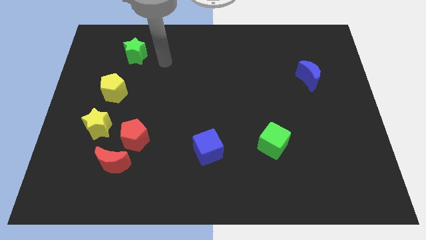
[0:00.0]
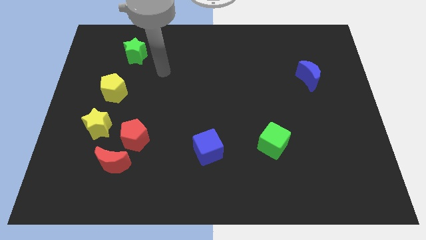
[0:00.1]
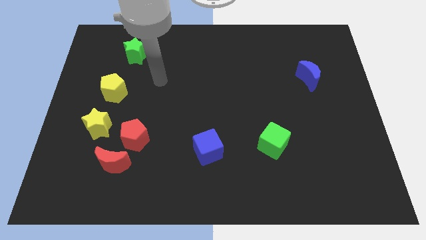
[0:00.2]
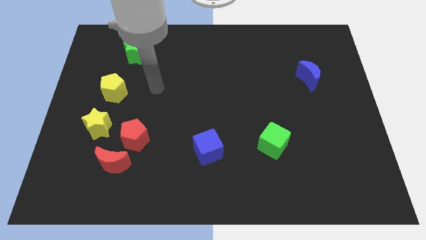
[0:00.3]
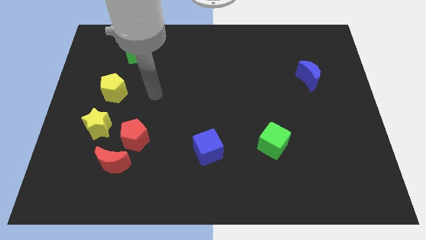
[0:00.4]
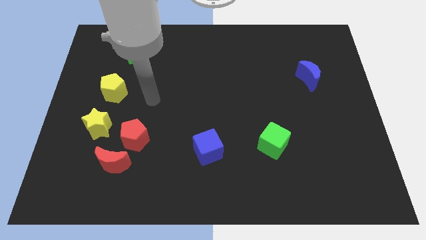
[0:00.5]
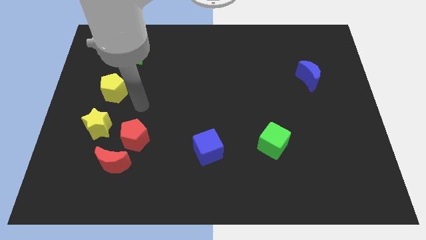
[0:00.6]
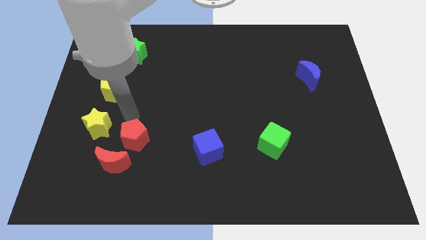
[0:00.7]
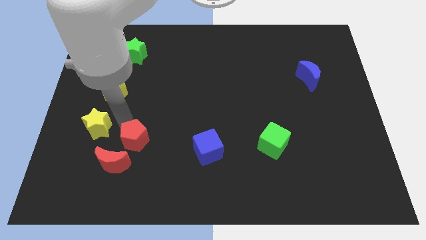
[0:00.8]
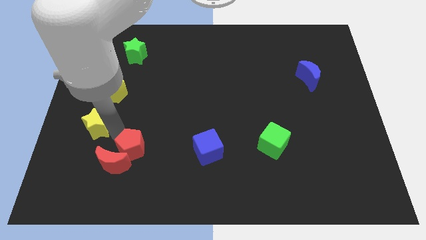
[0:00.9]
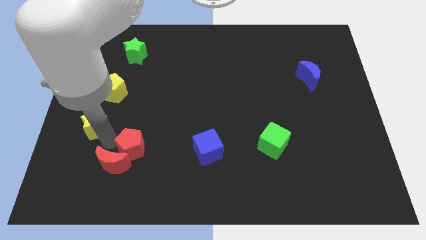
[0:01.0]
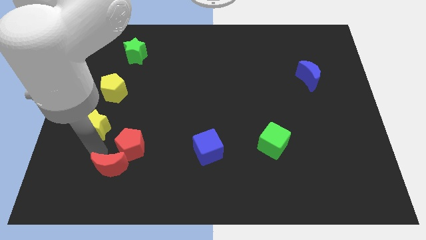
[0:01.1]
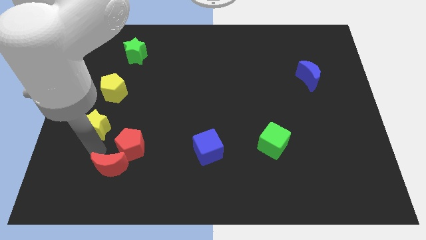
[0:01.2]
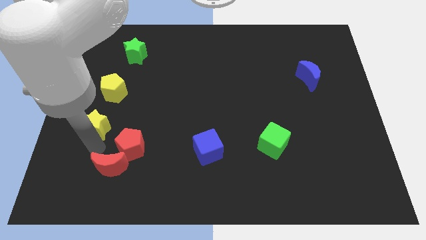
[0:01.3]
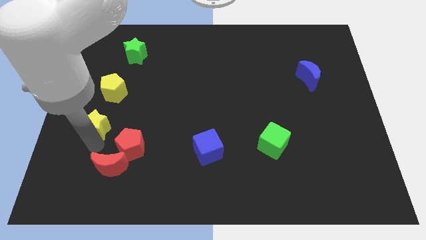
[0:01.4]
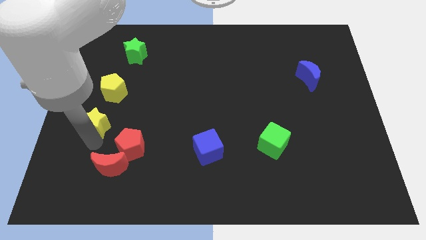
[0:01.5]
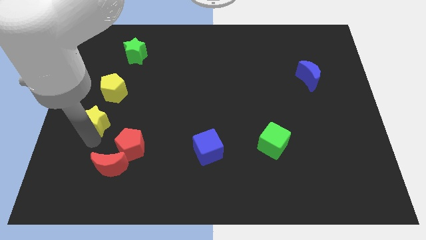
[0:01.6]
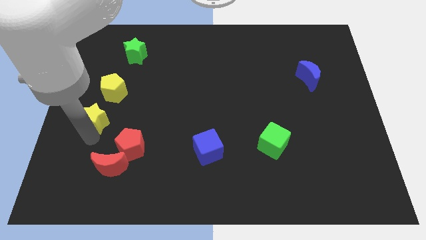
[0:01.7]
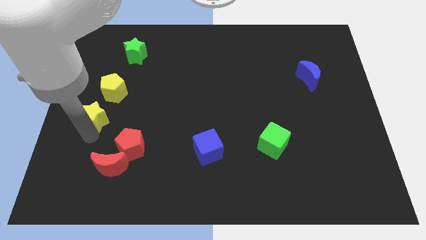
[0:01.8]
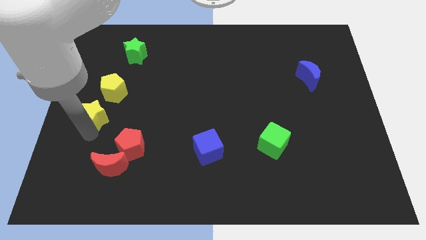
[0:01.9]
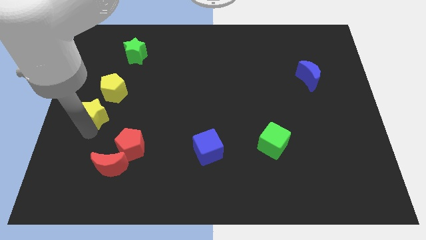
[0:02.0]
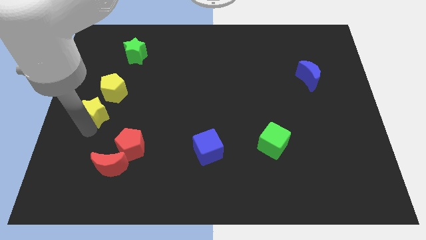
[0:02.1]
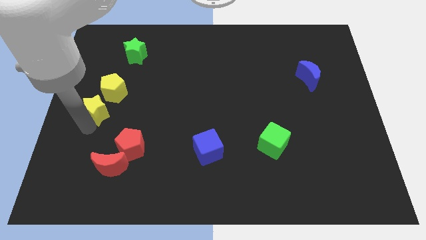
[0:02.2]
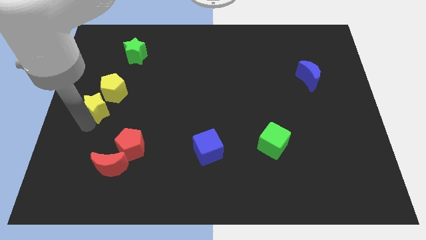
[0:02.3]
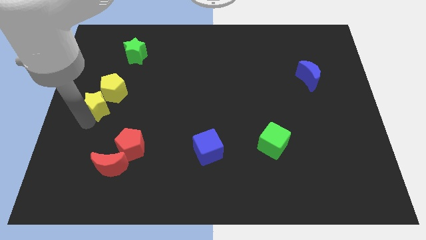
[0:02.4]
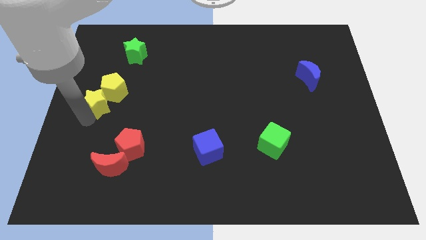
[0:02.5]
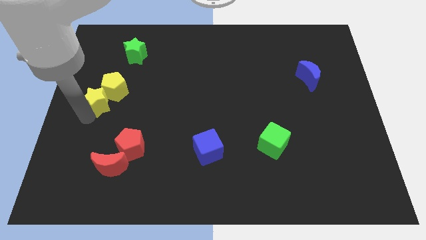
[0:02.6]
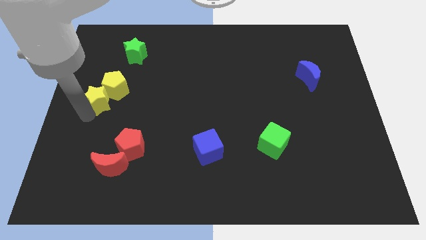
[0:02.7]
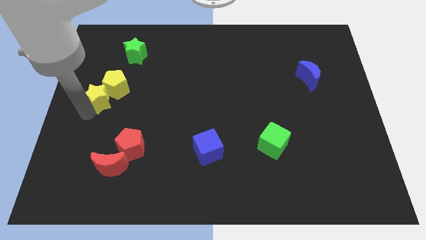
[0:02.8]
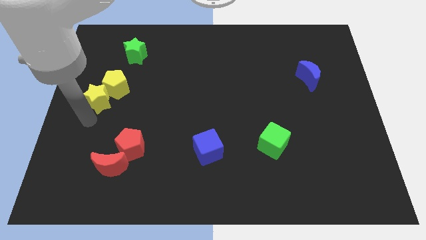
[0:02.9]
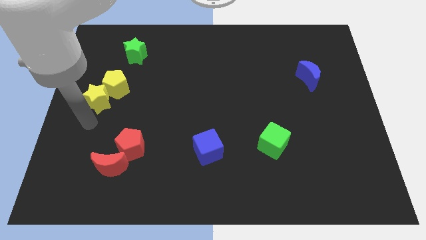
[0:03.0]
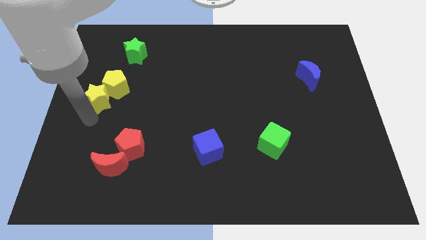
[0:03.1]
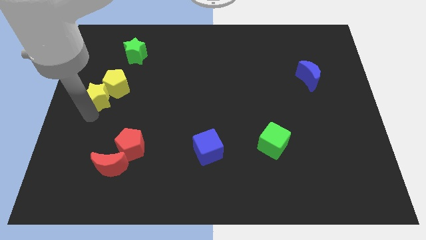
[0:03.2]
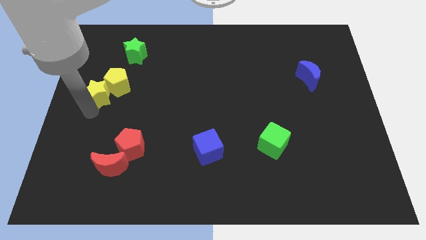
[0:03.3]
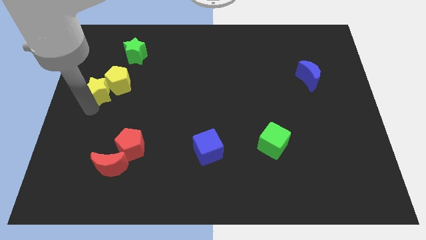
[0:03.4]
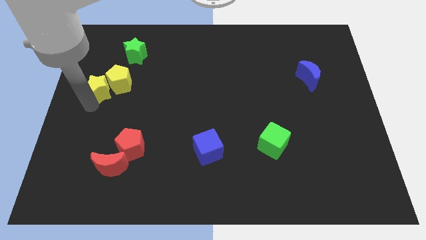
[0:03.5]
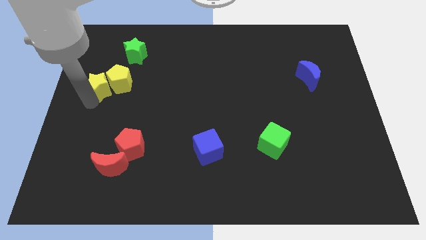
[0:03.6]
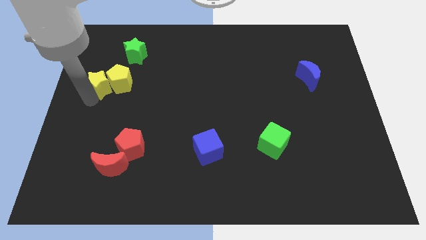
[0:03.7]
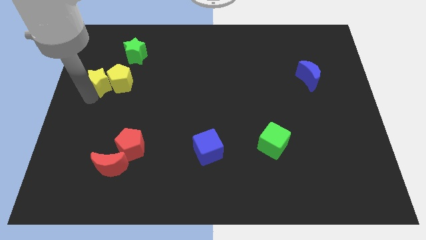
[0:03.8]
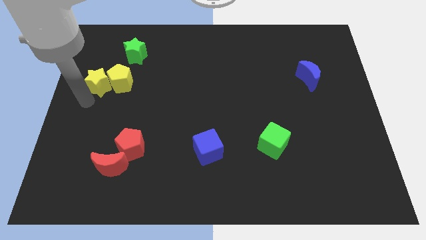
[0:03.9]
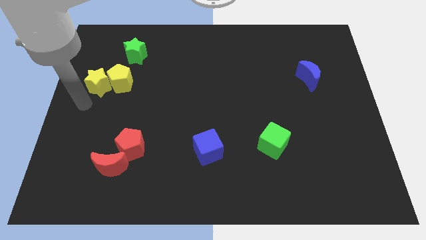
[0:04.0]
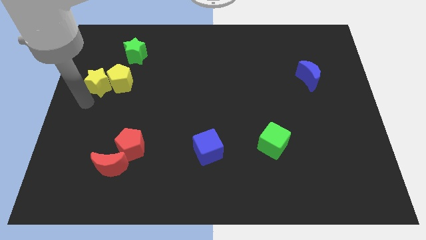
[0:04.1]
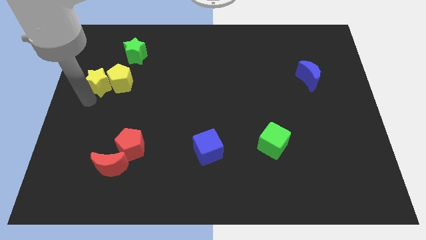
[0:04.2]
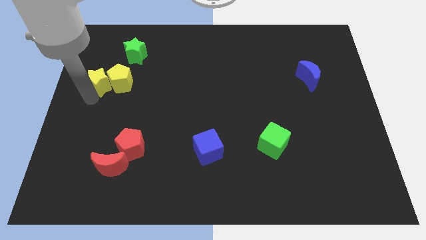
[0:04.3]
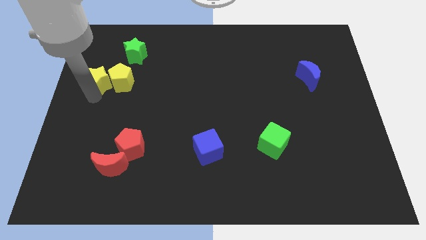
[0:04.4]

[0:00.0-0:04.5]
put the yellow star to the bottom left of the green star

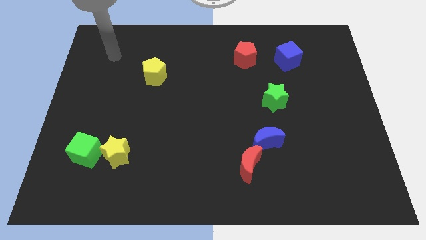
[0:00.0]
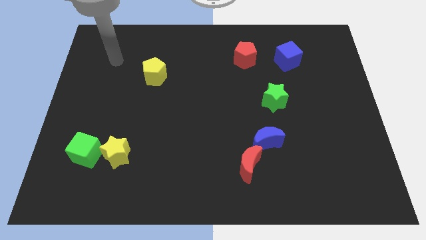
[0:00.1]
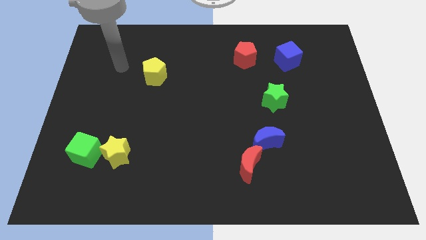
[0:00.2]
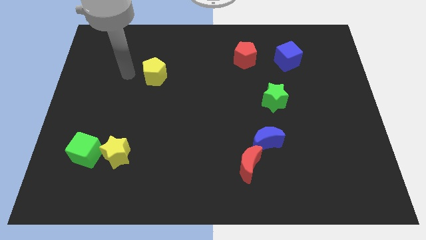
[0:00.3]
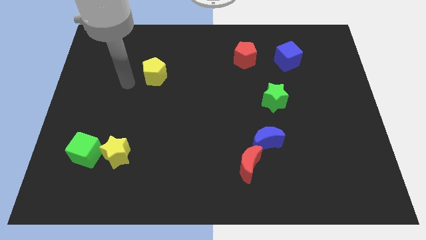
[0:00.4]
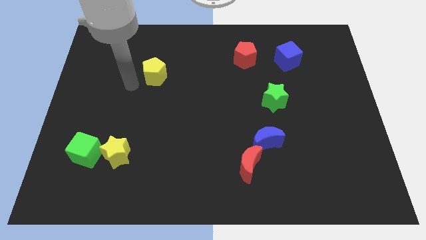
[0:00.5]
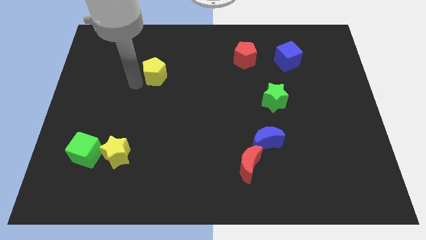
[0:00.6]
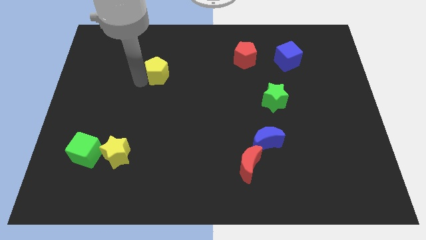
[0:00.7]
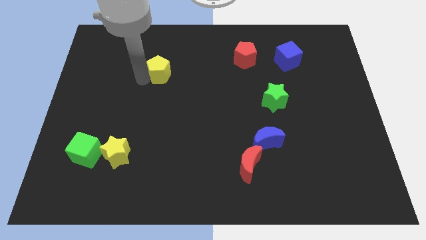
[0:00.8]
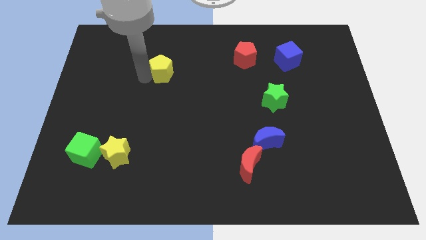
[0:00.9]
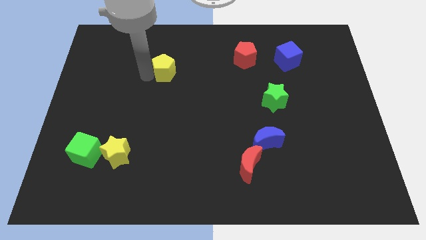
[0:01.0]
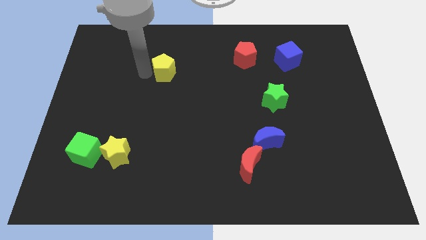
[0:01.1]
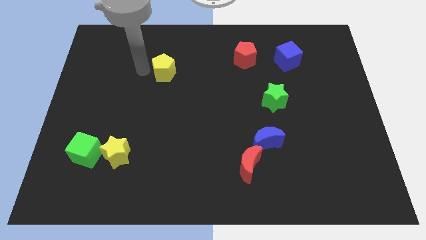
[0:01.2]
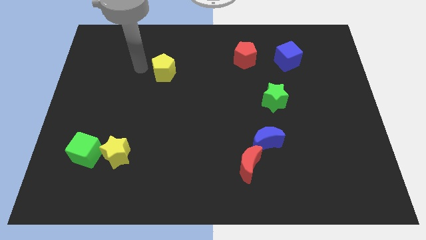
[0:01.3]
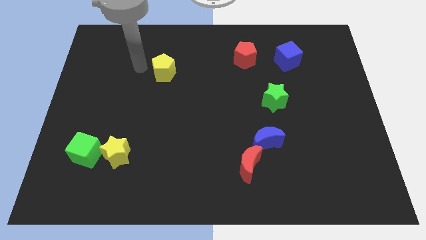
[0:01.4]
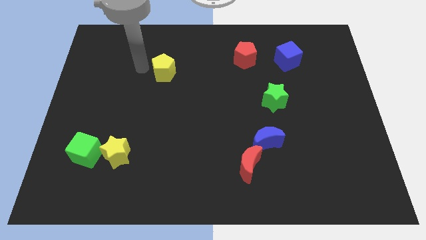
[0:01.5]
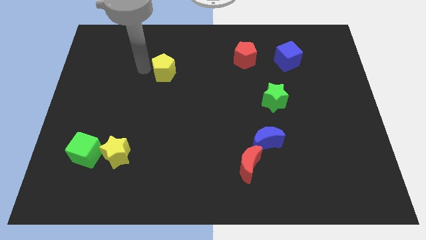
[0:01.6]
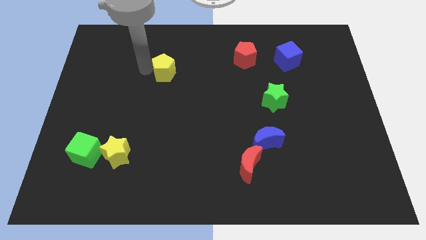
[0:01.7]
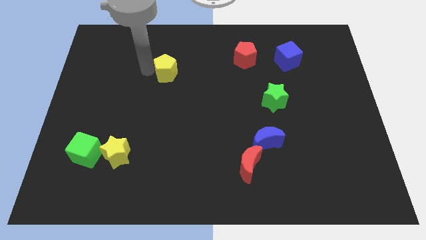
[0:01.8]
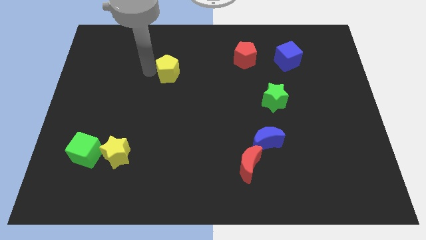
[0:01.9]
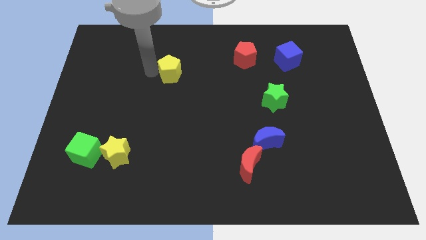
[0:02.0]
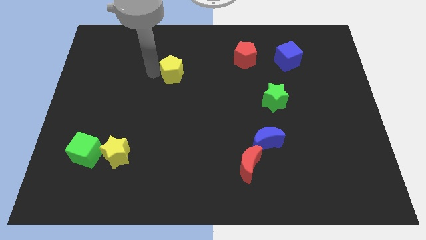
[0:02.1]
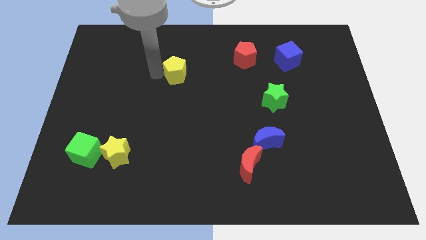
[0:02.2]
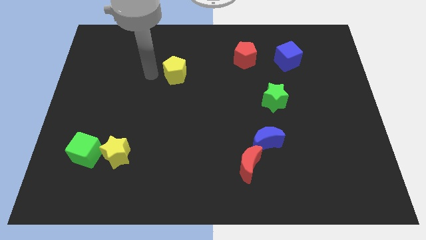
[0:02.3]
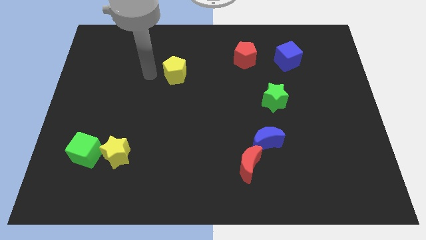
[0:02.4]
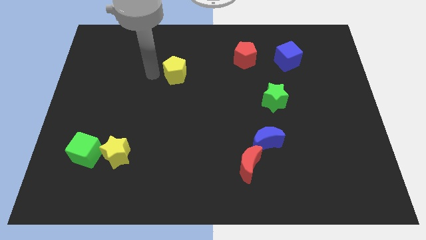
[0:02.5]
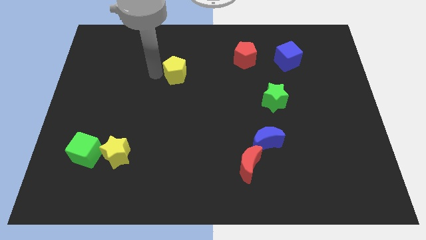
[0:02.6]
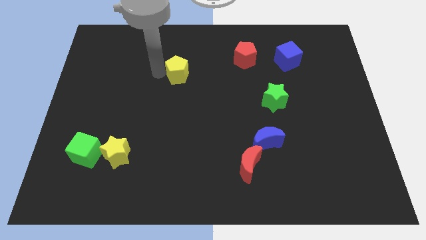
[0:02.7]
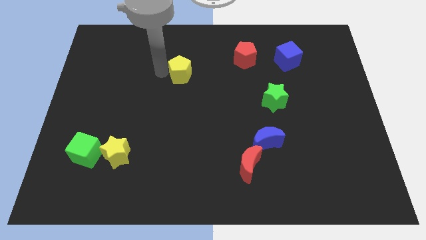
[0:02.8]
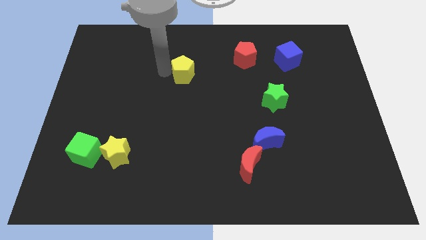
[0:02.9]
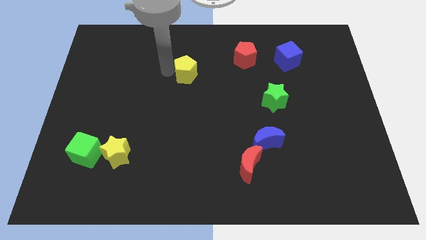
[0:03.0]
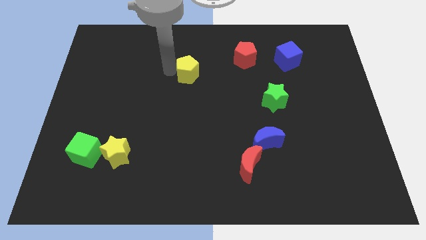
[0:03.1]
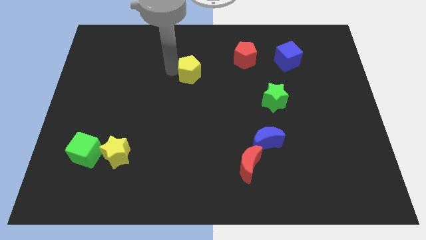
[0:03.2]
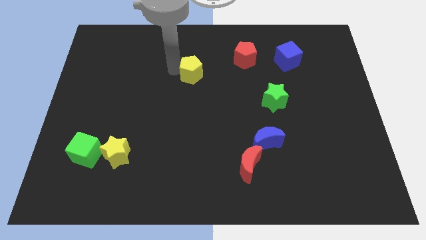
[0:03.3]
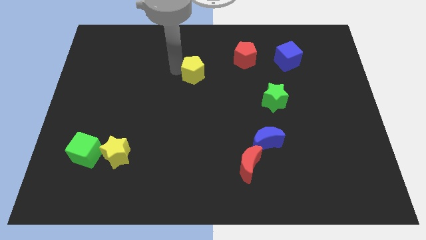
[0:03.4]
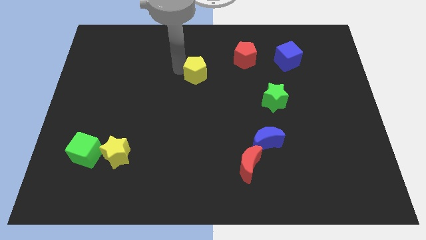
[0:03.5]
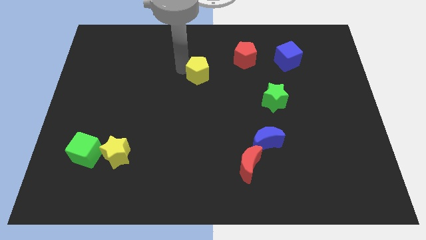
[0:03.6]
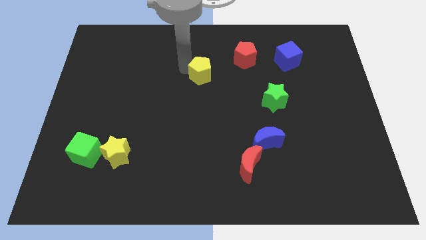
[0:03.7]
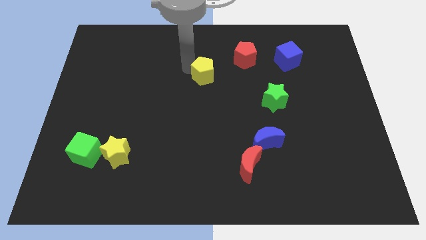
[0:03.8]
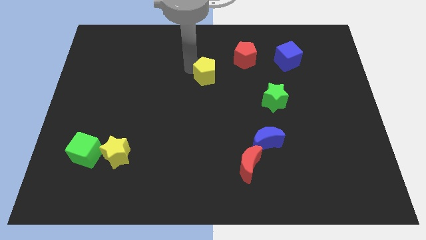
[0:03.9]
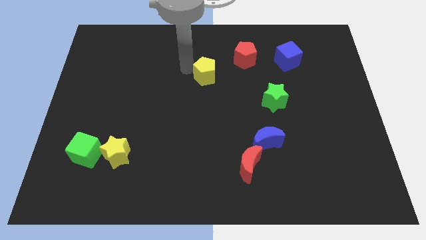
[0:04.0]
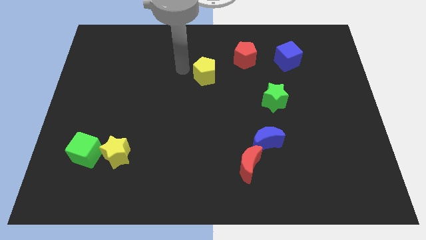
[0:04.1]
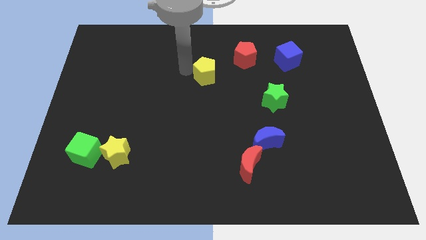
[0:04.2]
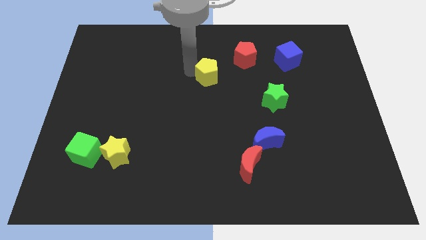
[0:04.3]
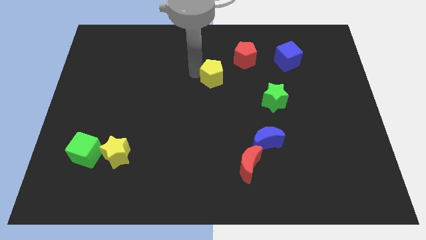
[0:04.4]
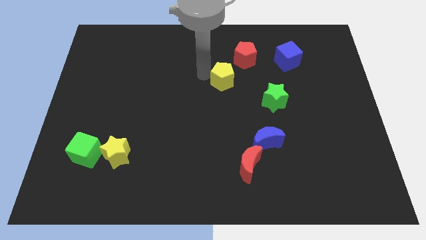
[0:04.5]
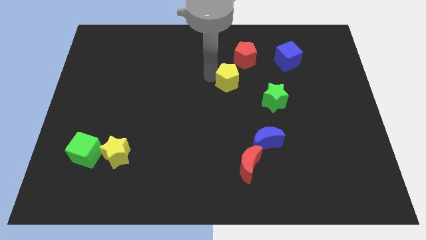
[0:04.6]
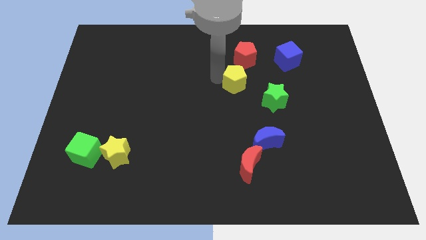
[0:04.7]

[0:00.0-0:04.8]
move the yellow pentagon diagonally up and to the left of the green star
